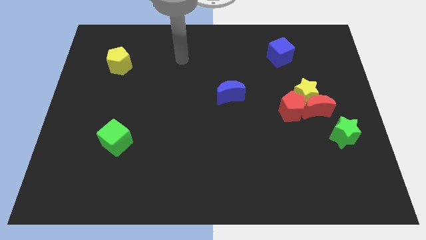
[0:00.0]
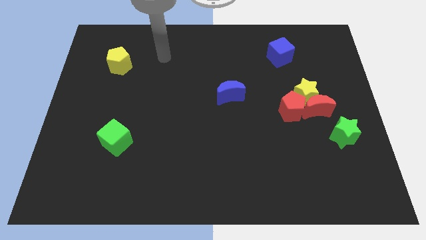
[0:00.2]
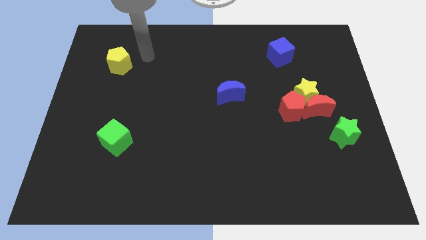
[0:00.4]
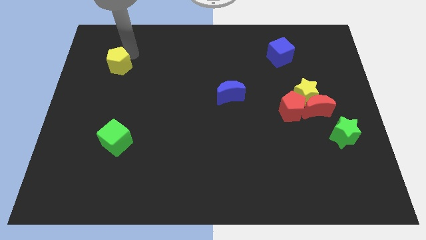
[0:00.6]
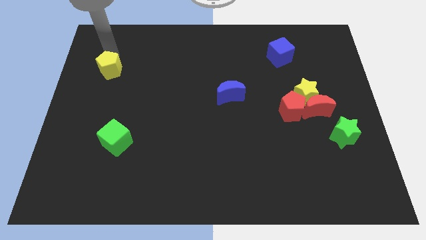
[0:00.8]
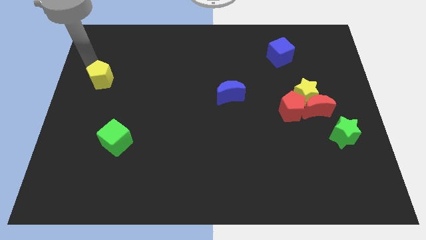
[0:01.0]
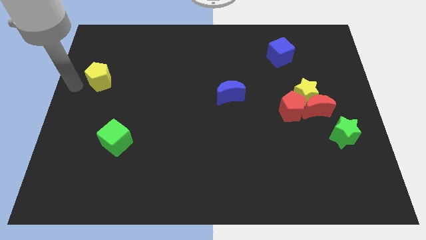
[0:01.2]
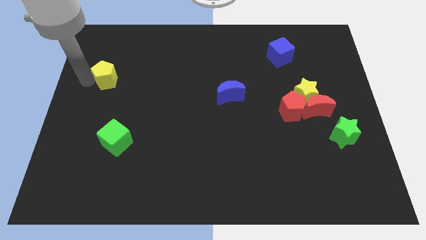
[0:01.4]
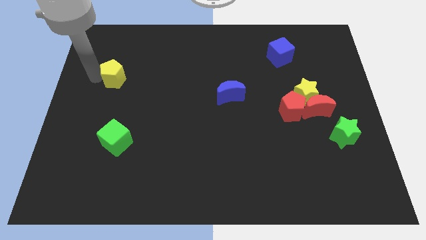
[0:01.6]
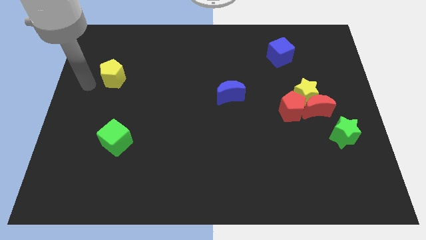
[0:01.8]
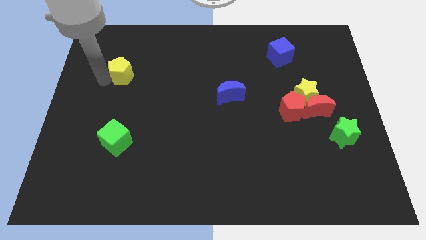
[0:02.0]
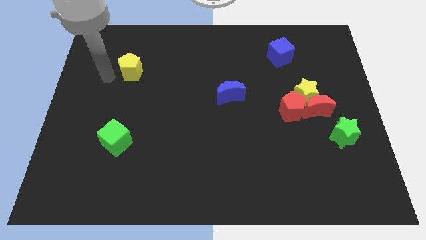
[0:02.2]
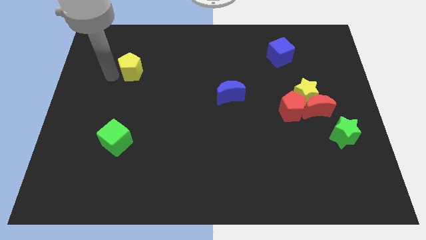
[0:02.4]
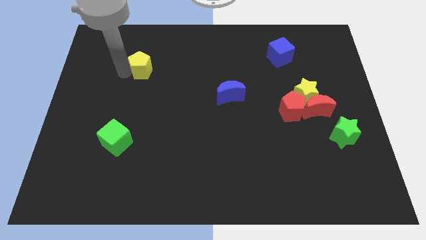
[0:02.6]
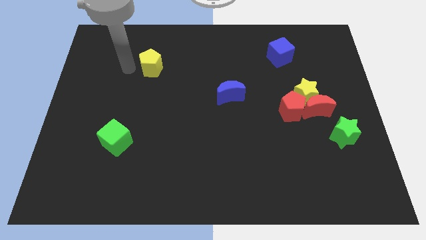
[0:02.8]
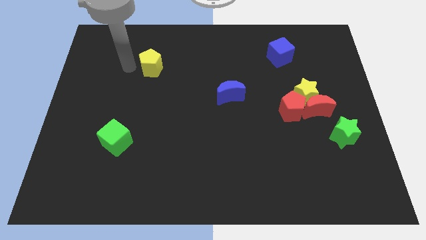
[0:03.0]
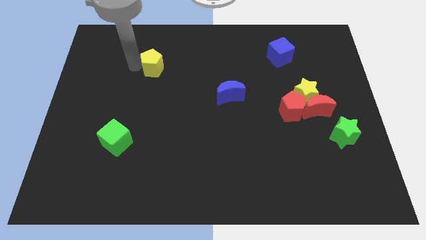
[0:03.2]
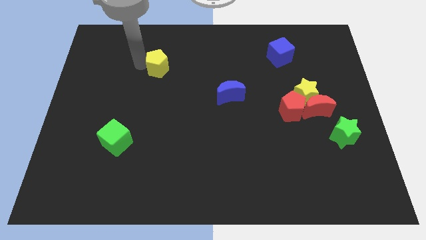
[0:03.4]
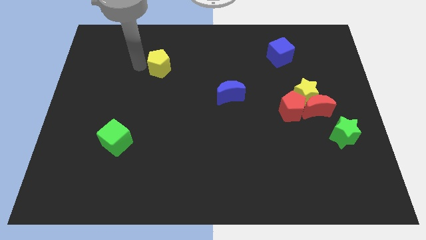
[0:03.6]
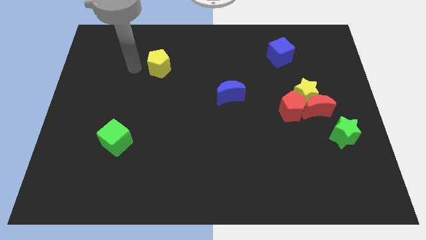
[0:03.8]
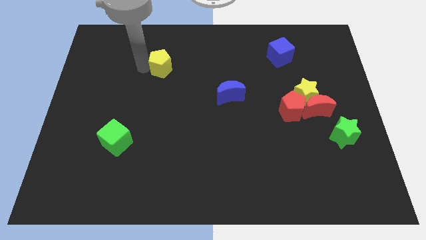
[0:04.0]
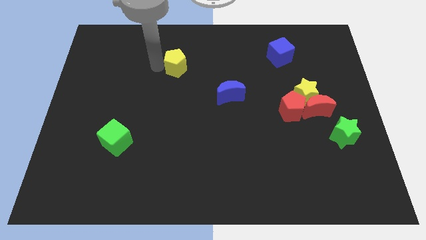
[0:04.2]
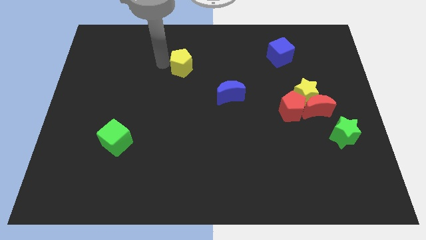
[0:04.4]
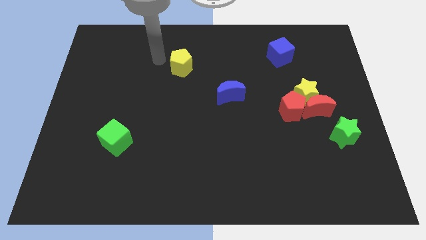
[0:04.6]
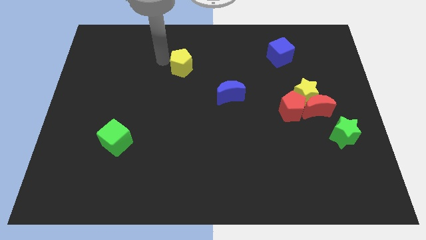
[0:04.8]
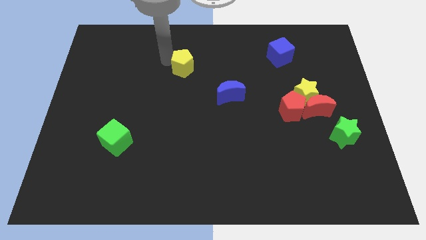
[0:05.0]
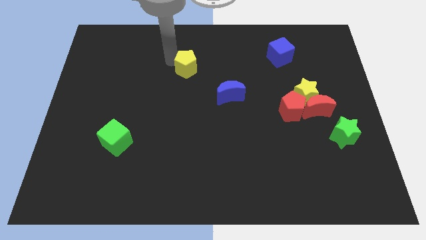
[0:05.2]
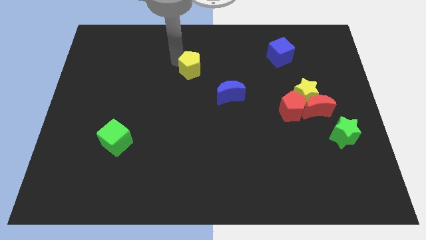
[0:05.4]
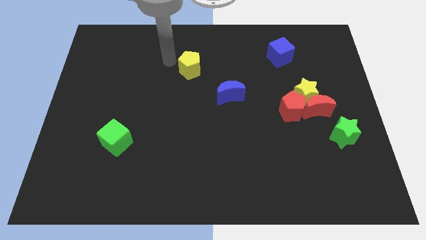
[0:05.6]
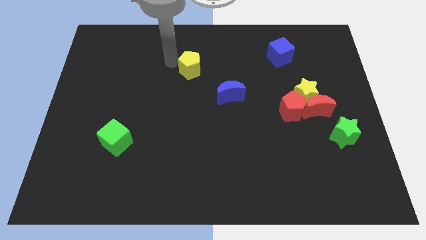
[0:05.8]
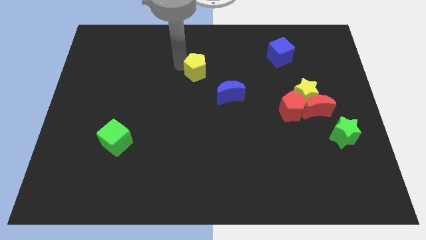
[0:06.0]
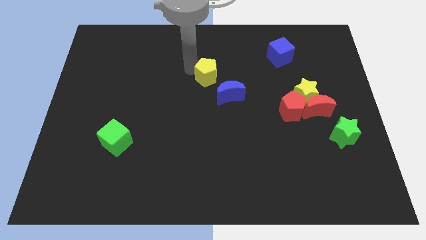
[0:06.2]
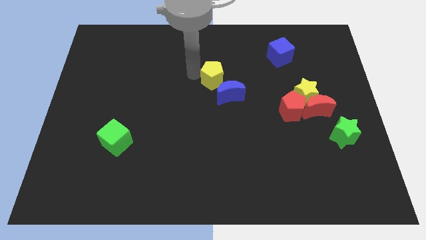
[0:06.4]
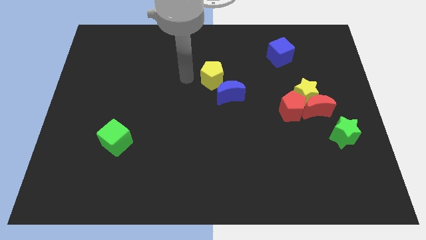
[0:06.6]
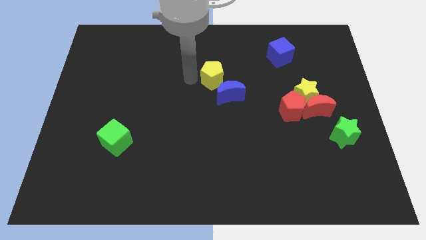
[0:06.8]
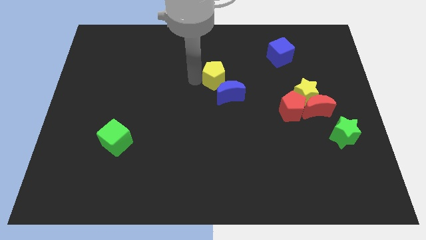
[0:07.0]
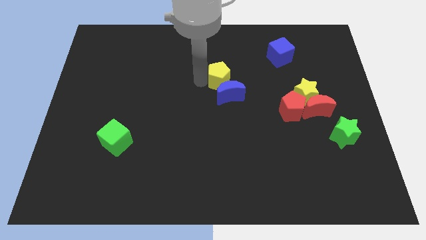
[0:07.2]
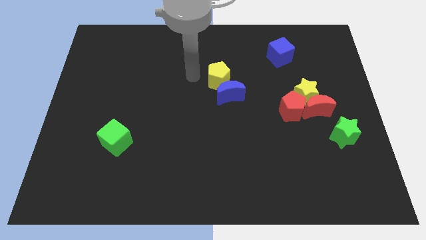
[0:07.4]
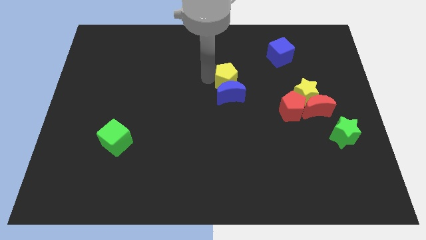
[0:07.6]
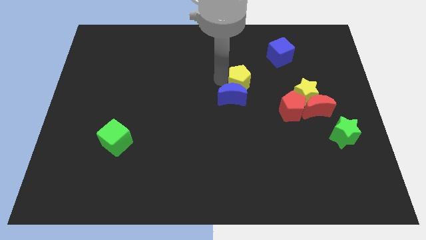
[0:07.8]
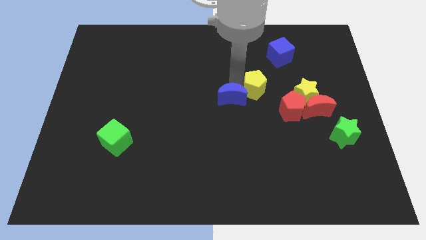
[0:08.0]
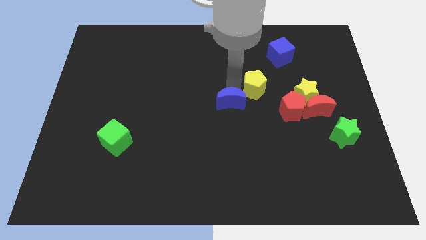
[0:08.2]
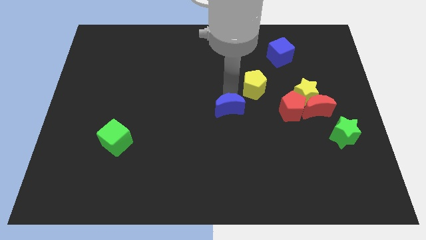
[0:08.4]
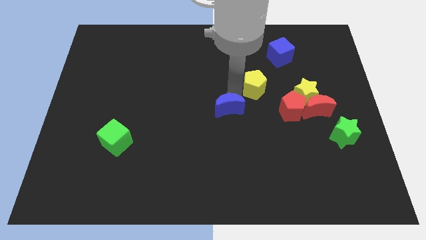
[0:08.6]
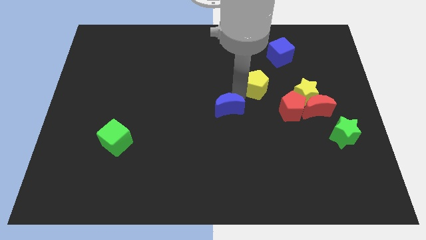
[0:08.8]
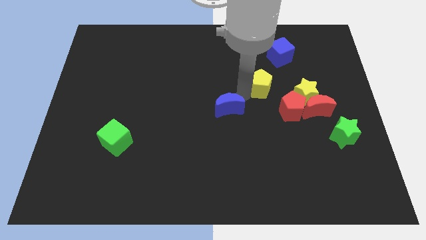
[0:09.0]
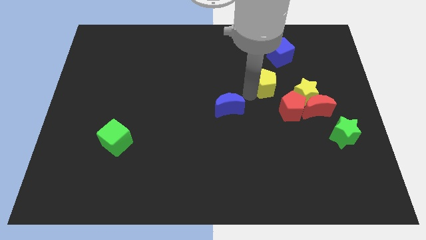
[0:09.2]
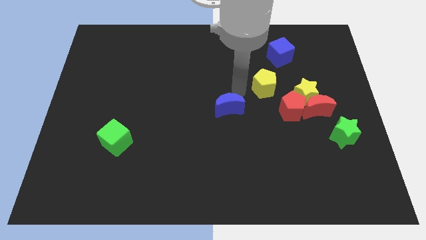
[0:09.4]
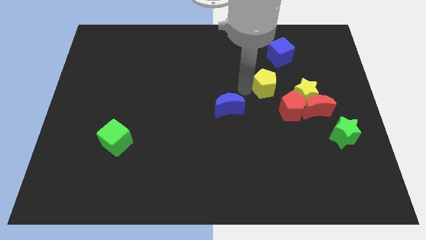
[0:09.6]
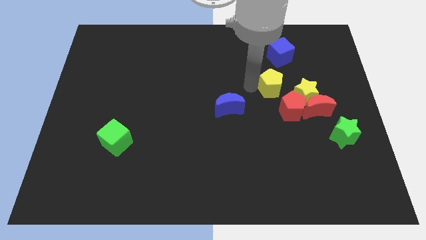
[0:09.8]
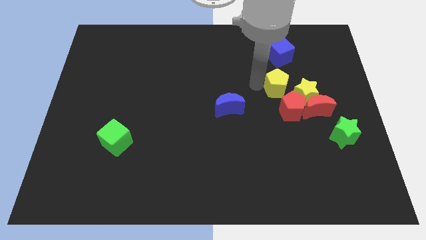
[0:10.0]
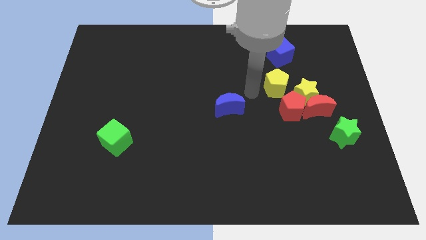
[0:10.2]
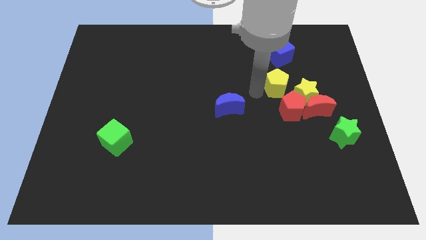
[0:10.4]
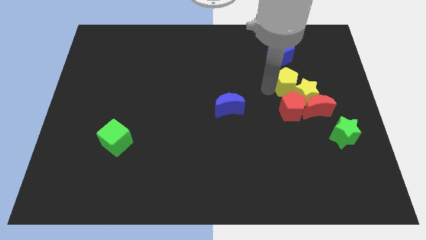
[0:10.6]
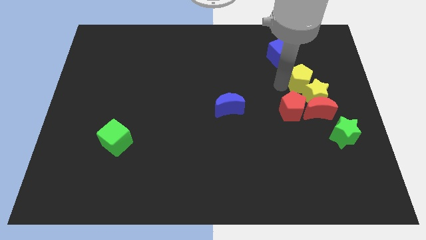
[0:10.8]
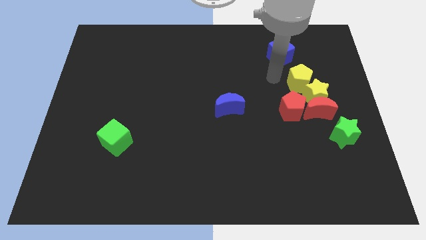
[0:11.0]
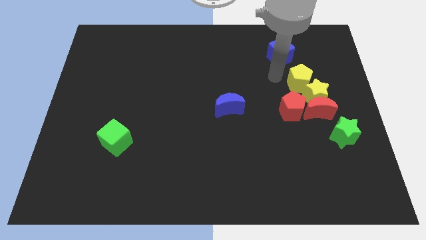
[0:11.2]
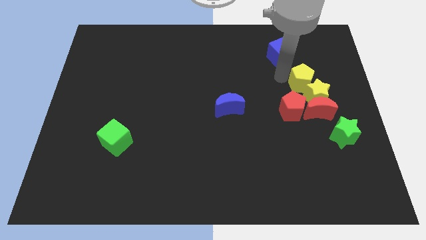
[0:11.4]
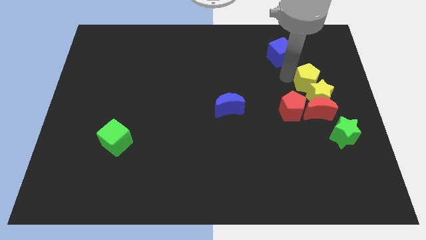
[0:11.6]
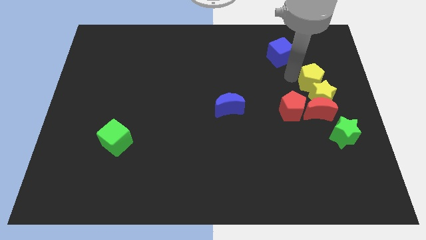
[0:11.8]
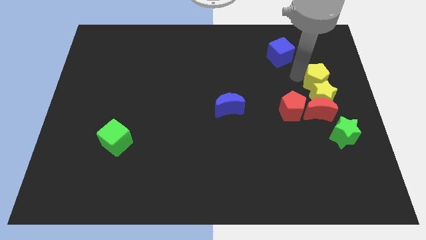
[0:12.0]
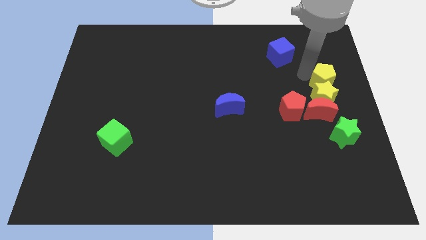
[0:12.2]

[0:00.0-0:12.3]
move the yellow pentagon to the right side of the board
